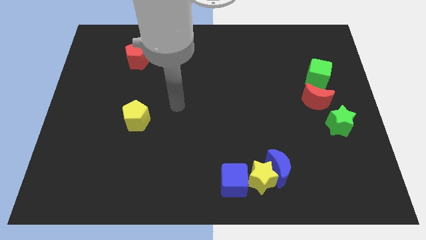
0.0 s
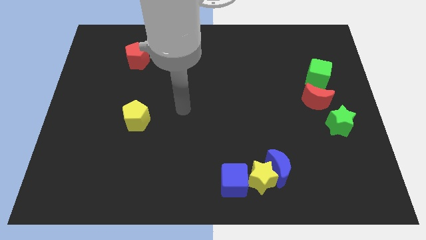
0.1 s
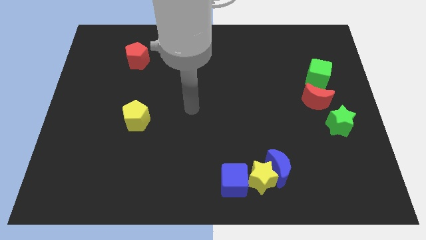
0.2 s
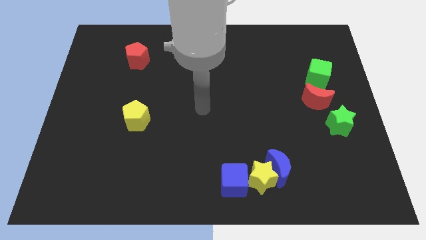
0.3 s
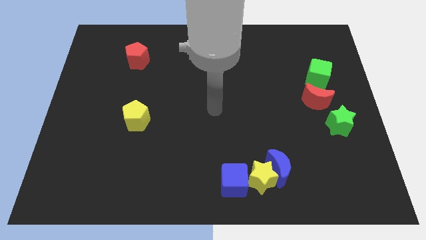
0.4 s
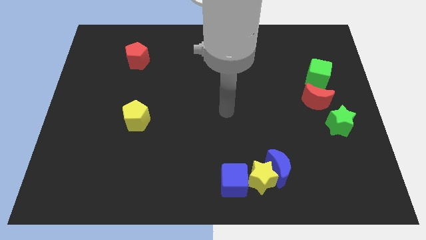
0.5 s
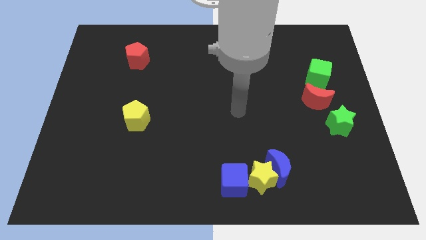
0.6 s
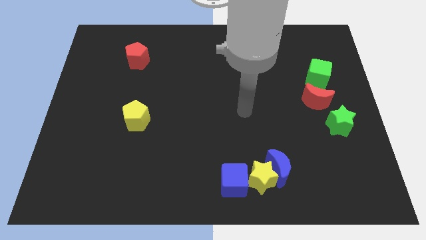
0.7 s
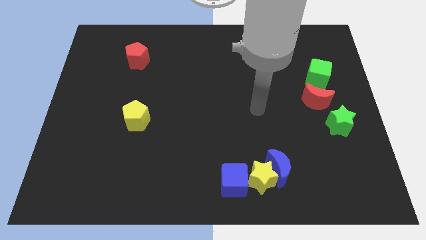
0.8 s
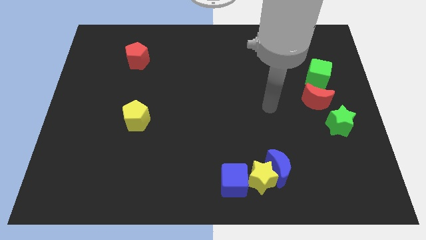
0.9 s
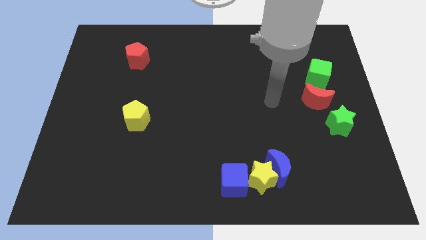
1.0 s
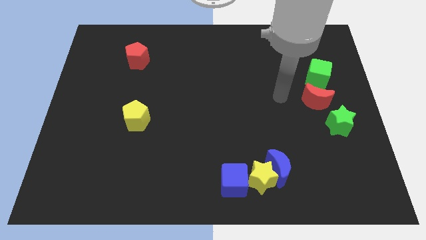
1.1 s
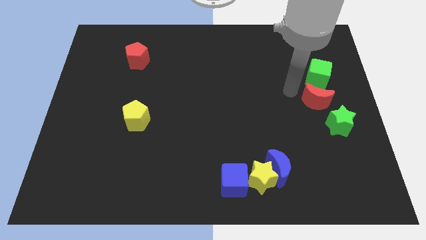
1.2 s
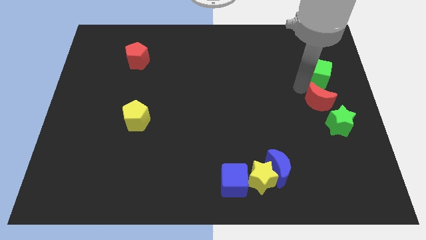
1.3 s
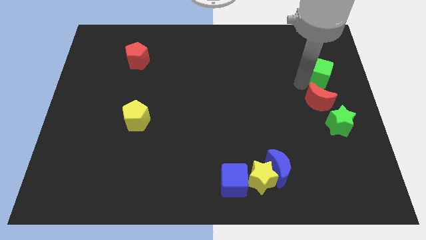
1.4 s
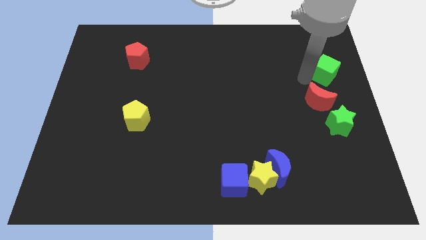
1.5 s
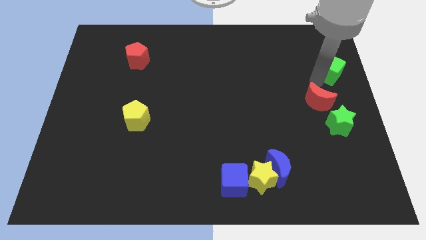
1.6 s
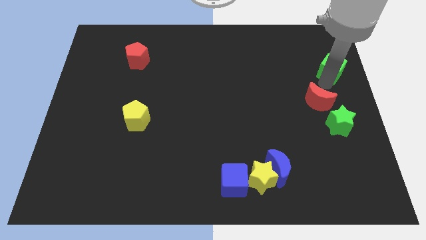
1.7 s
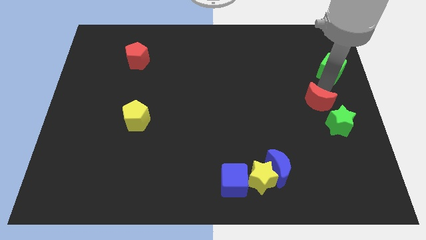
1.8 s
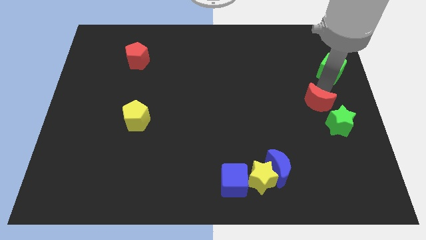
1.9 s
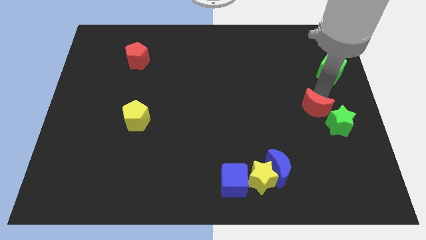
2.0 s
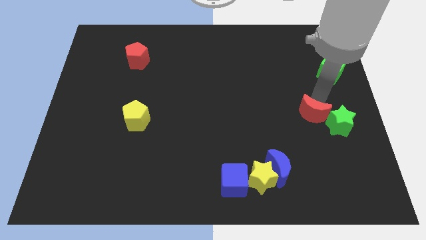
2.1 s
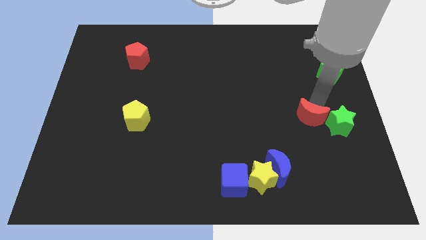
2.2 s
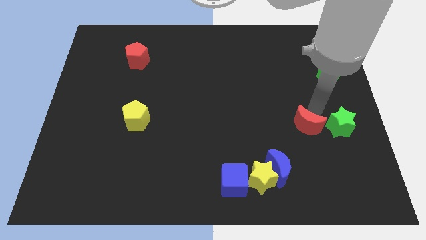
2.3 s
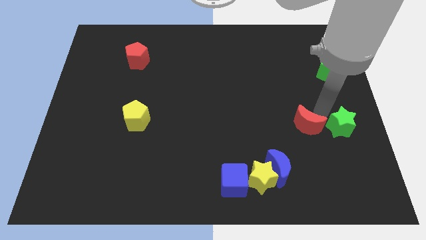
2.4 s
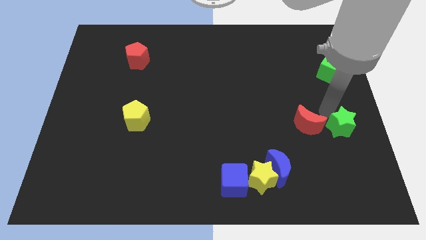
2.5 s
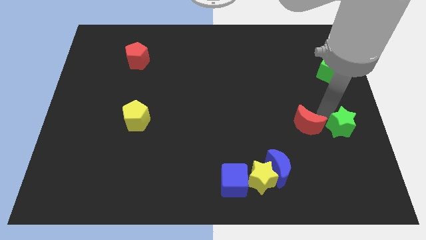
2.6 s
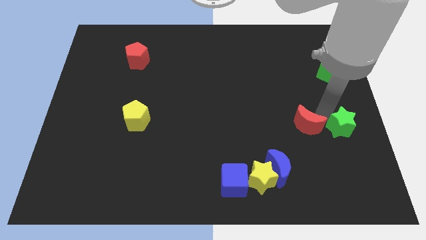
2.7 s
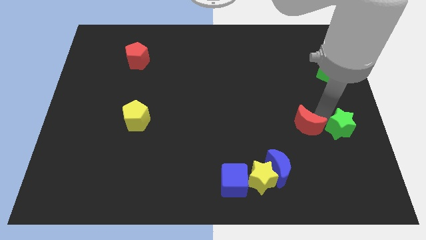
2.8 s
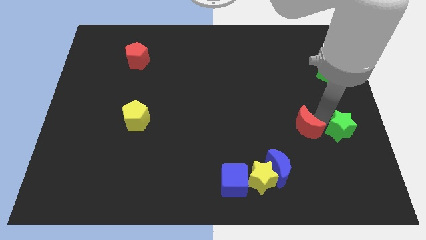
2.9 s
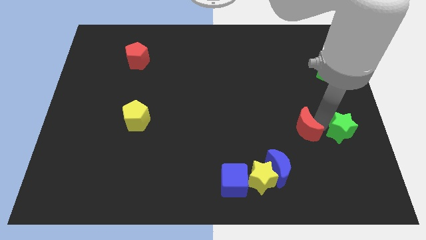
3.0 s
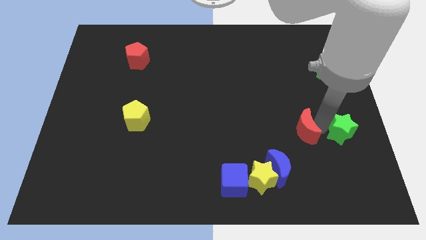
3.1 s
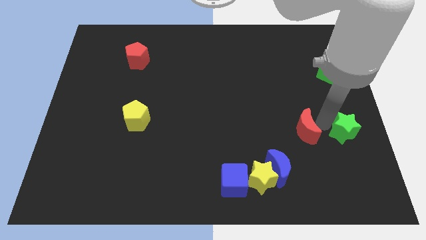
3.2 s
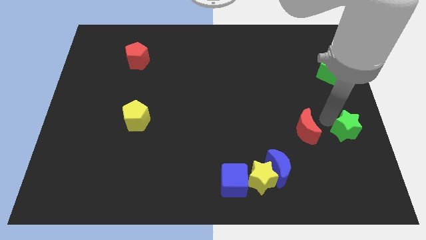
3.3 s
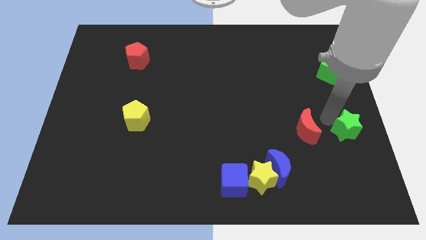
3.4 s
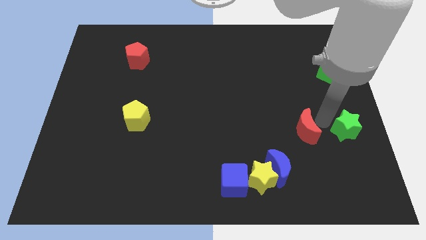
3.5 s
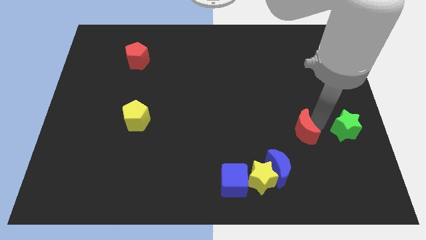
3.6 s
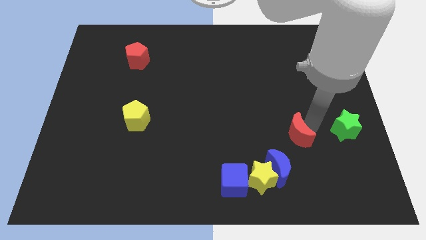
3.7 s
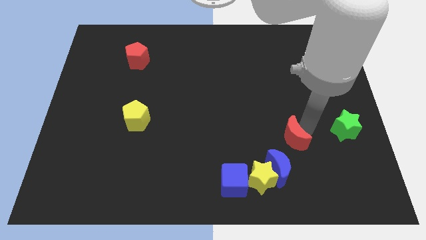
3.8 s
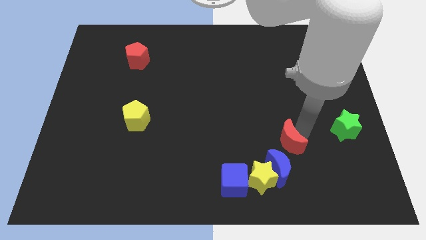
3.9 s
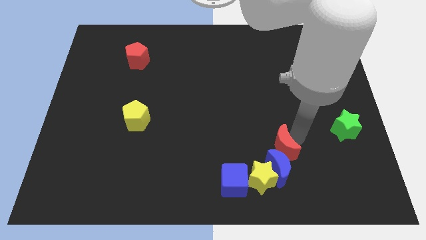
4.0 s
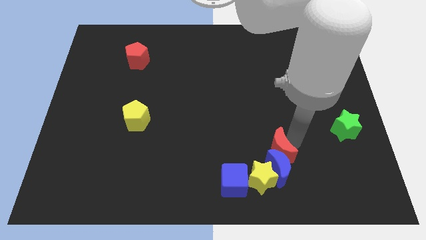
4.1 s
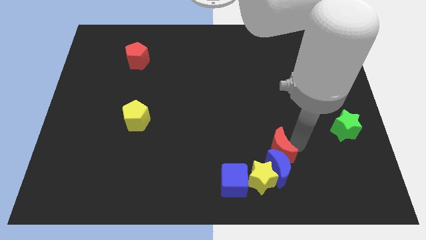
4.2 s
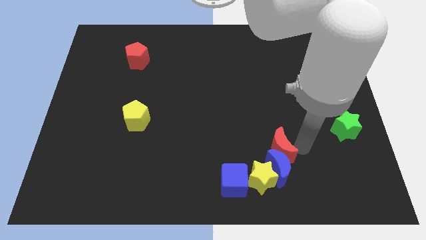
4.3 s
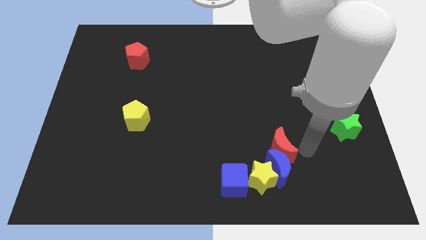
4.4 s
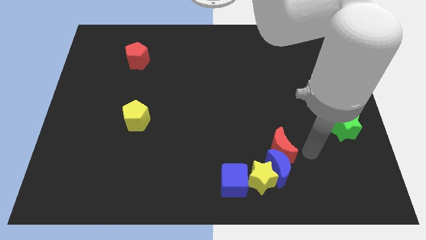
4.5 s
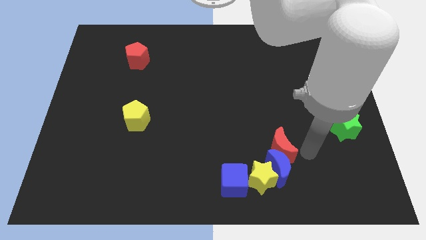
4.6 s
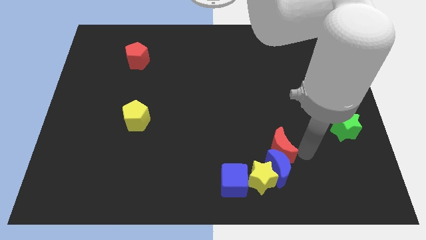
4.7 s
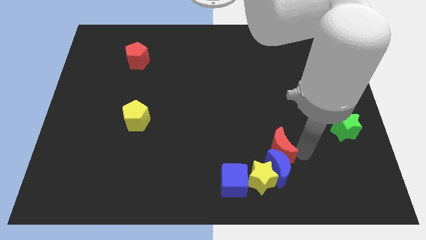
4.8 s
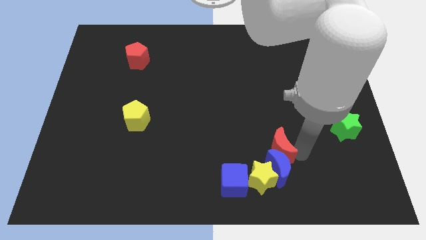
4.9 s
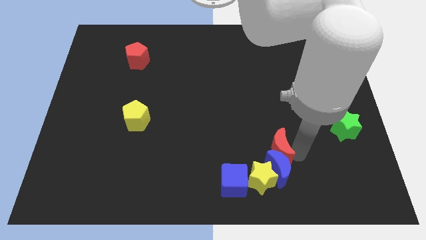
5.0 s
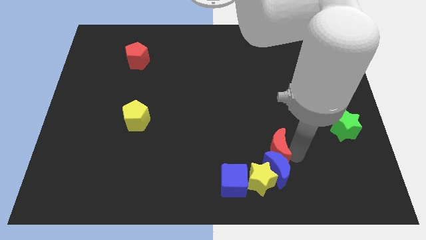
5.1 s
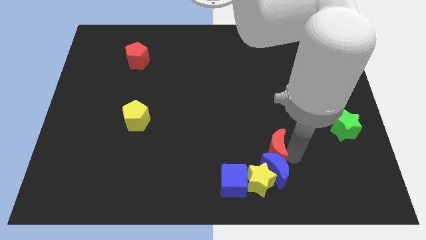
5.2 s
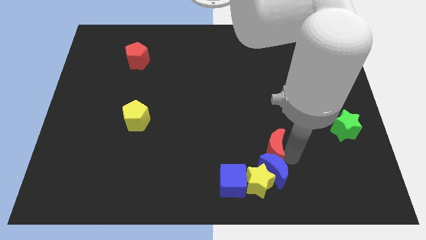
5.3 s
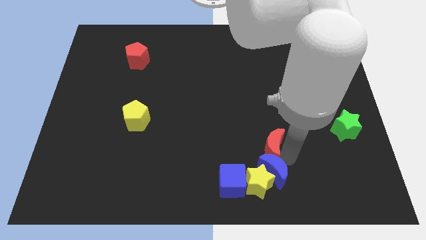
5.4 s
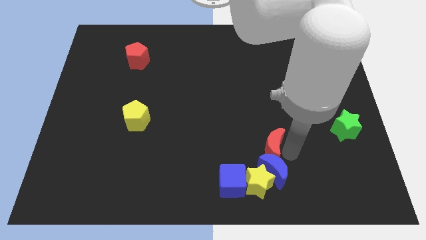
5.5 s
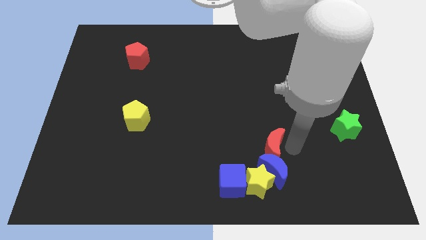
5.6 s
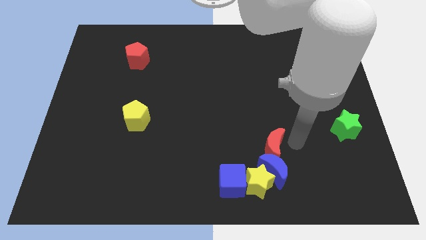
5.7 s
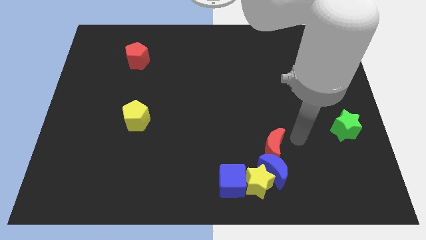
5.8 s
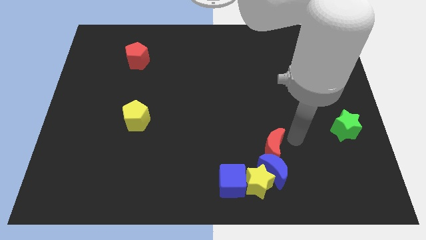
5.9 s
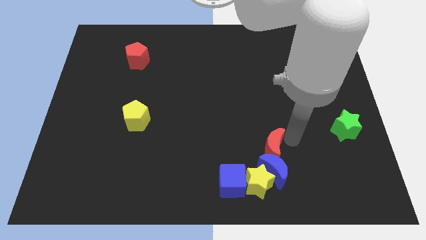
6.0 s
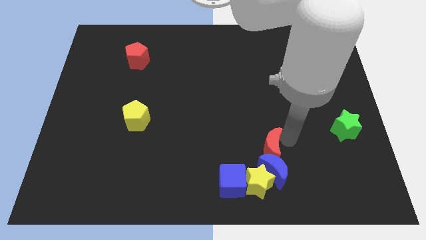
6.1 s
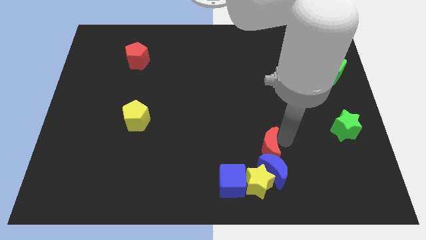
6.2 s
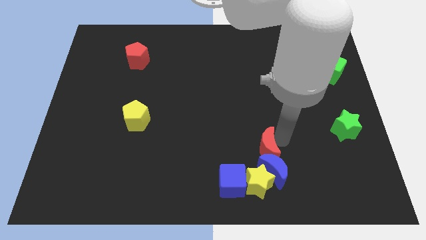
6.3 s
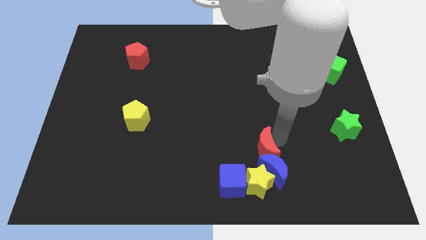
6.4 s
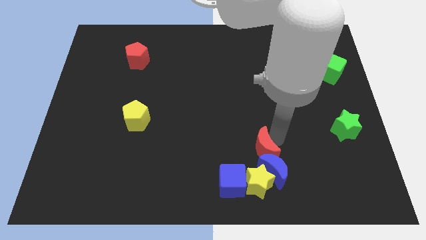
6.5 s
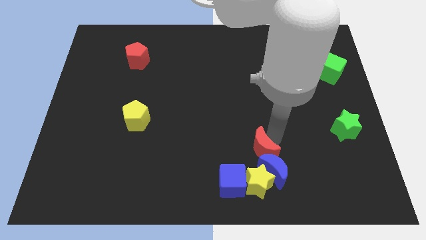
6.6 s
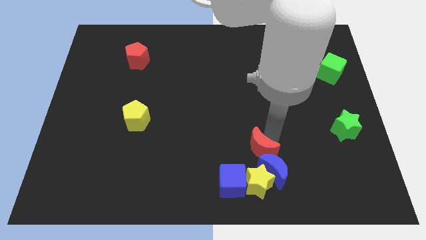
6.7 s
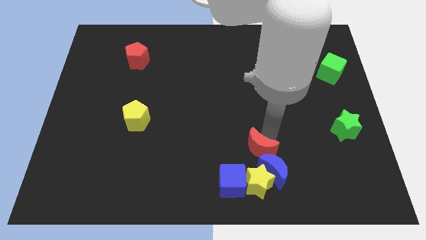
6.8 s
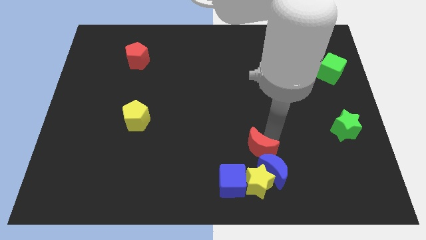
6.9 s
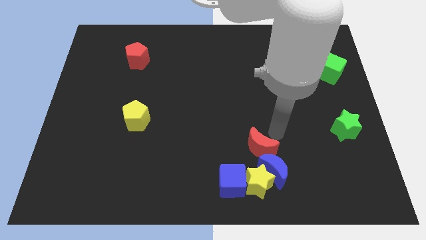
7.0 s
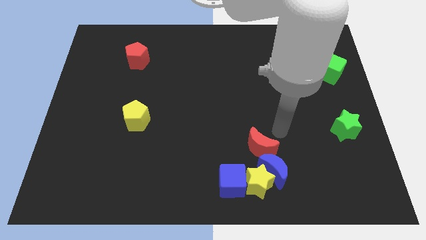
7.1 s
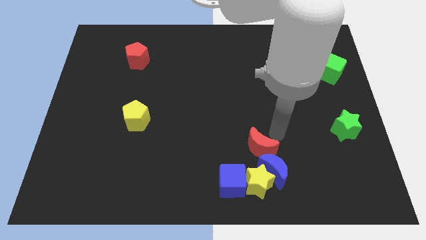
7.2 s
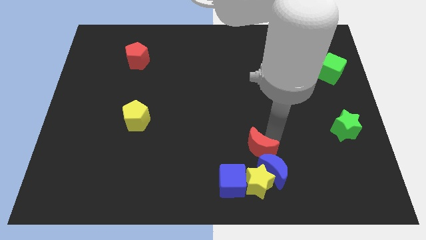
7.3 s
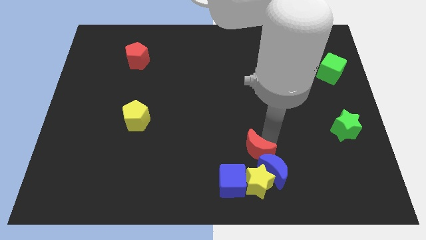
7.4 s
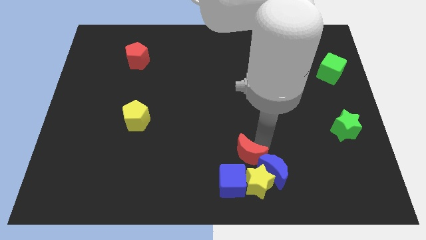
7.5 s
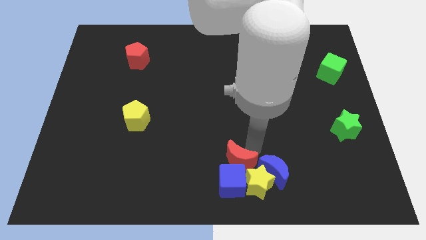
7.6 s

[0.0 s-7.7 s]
slide the red moon to the blue cube
